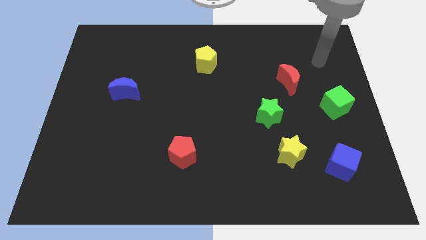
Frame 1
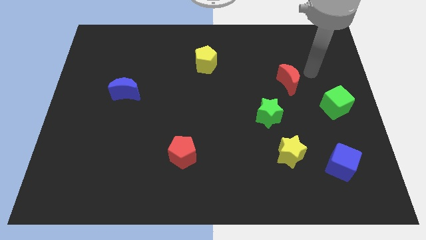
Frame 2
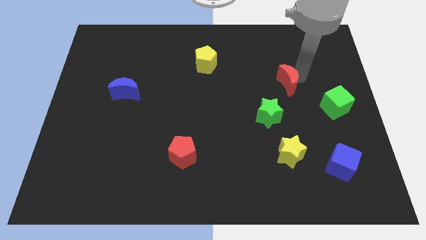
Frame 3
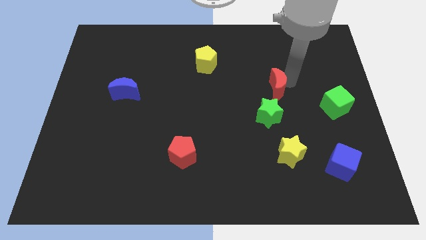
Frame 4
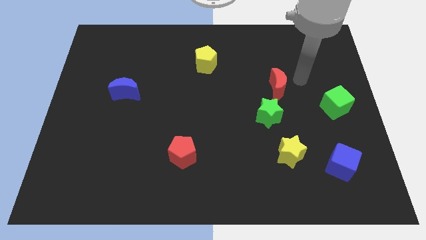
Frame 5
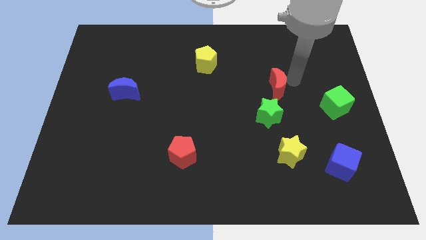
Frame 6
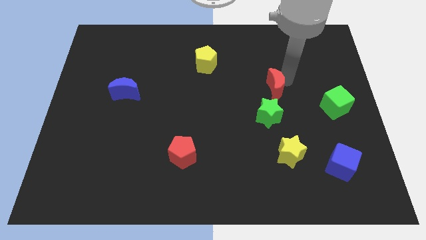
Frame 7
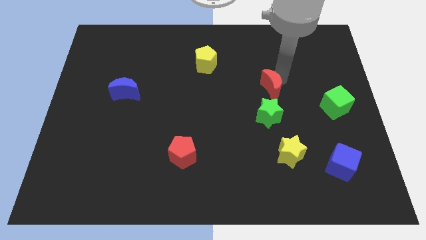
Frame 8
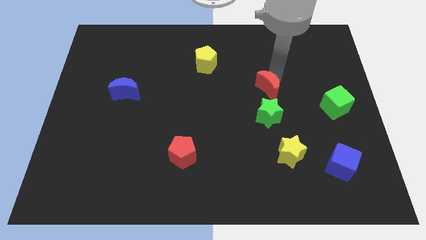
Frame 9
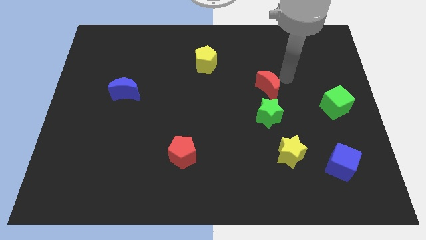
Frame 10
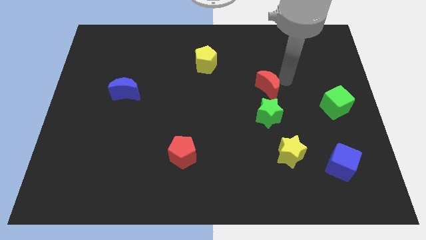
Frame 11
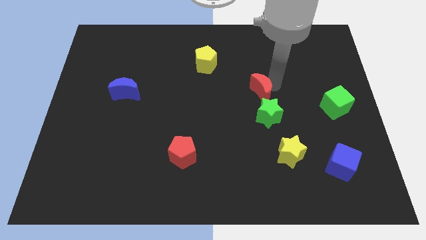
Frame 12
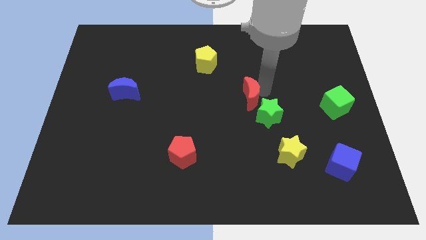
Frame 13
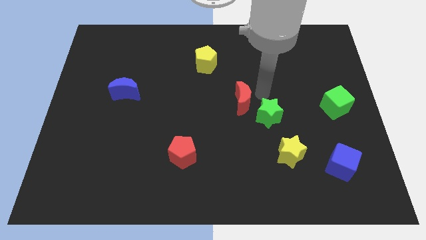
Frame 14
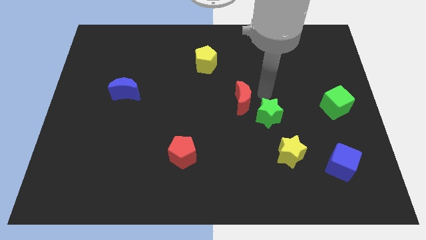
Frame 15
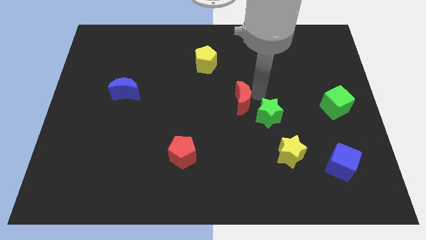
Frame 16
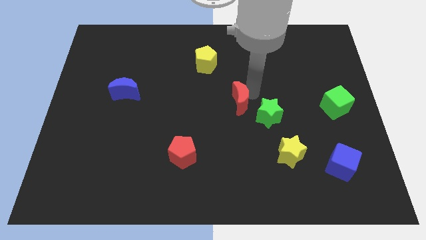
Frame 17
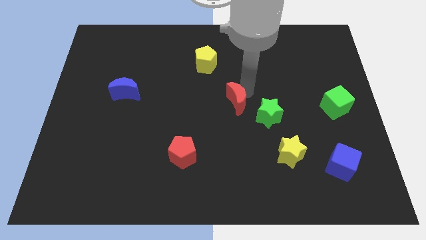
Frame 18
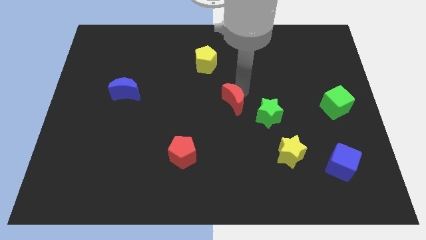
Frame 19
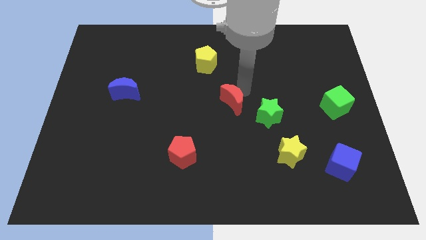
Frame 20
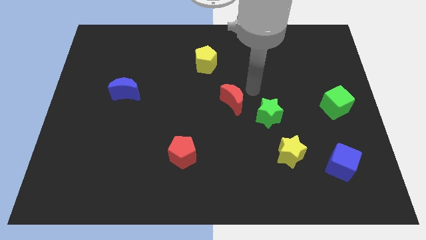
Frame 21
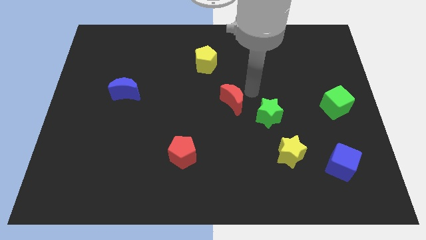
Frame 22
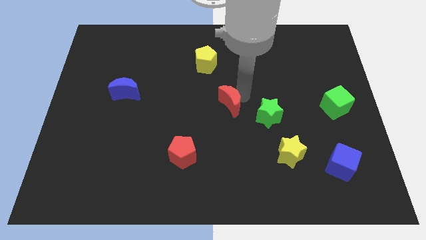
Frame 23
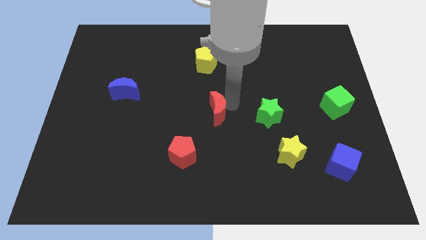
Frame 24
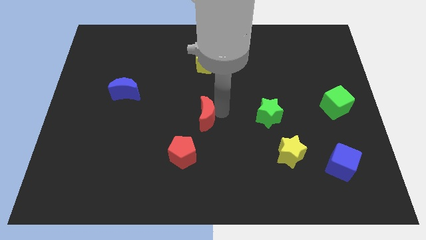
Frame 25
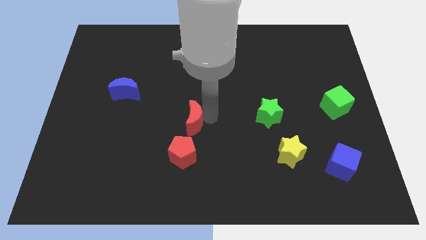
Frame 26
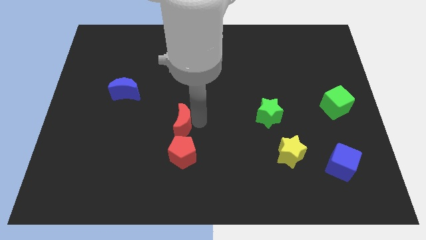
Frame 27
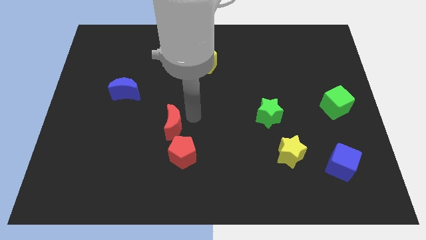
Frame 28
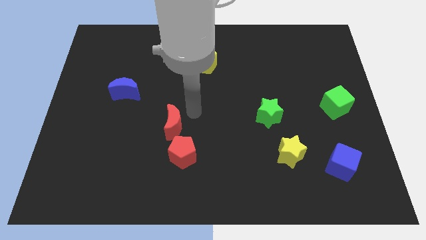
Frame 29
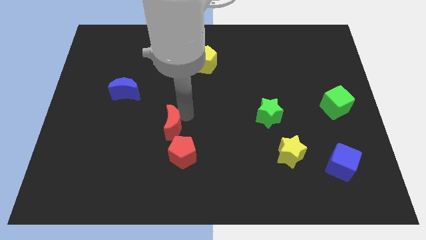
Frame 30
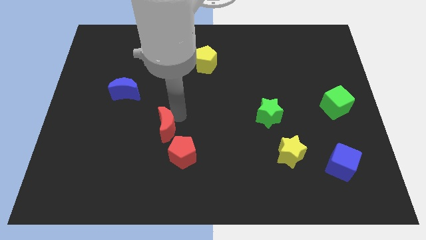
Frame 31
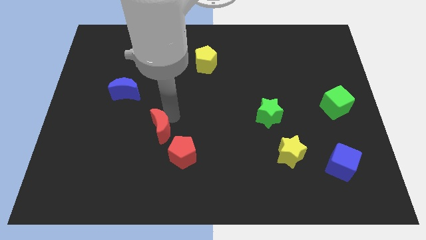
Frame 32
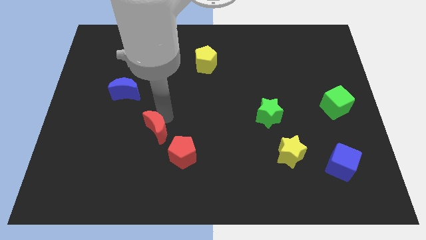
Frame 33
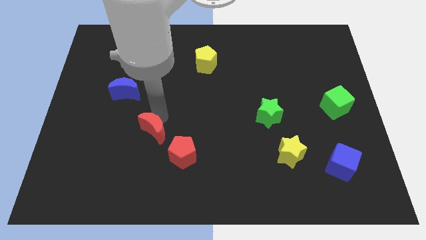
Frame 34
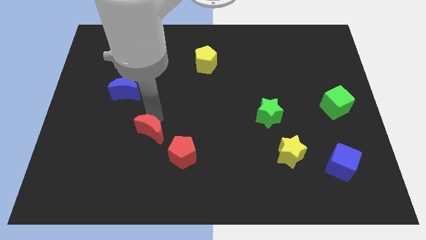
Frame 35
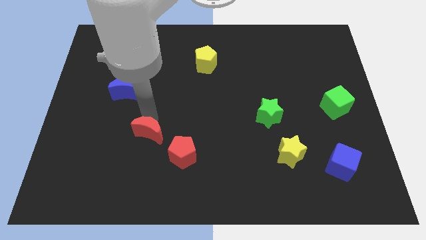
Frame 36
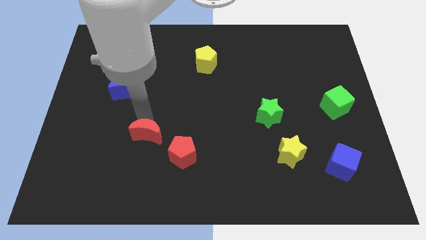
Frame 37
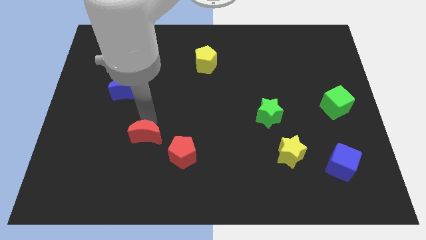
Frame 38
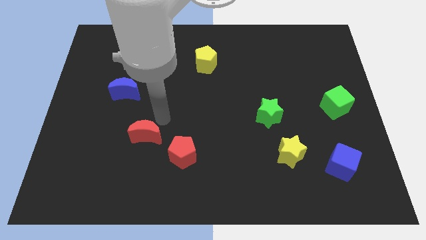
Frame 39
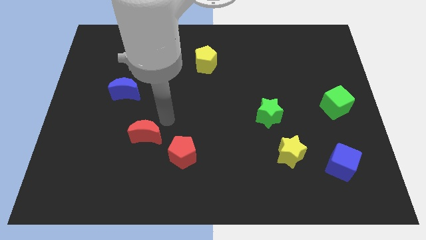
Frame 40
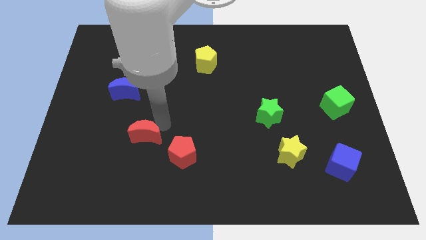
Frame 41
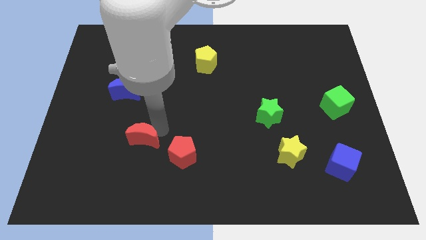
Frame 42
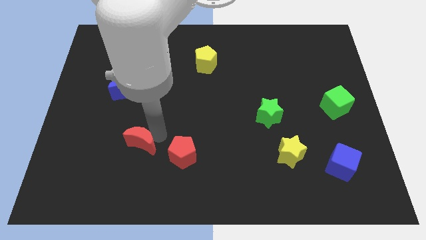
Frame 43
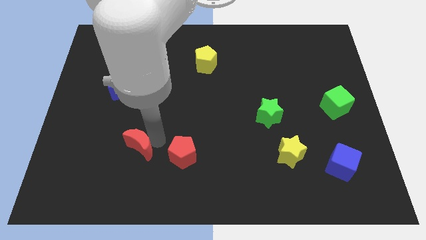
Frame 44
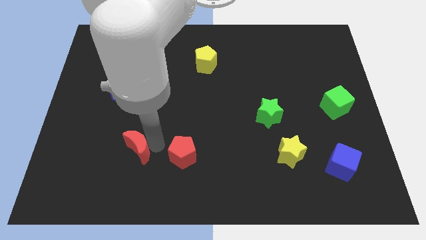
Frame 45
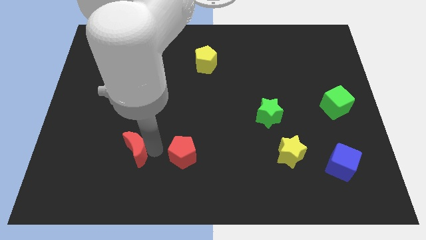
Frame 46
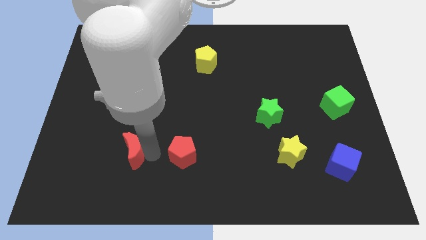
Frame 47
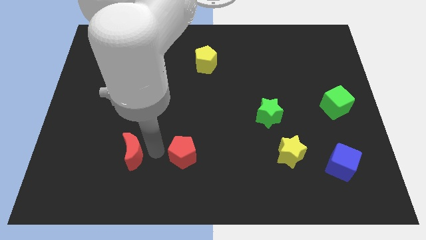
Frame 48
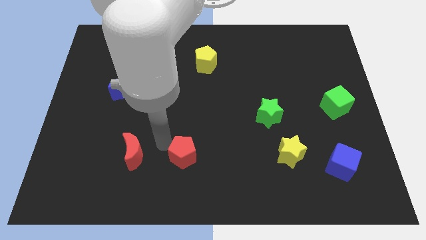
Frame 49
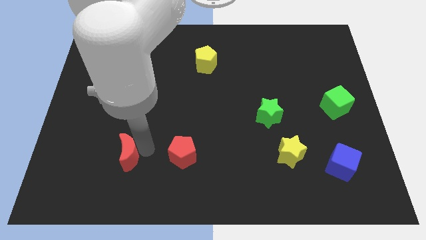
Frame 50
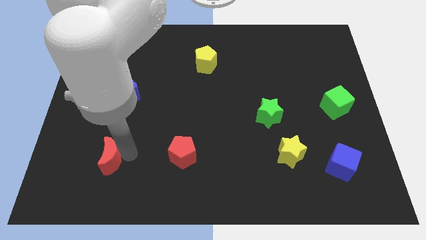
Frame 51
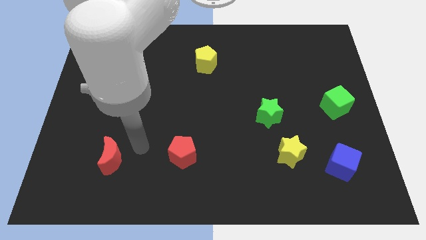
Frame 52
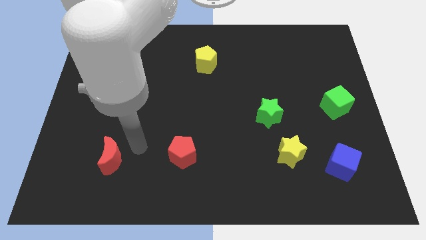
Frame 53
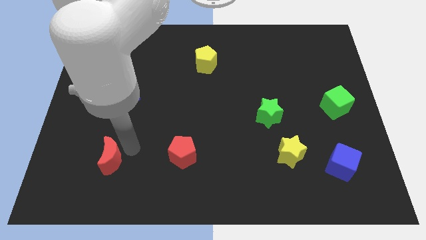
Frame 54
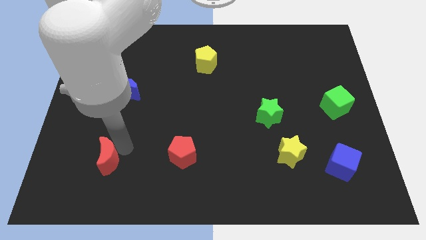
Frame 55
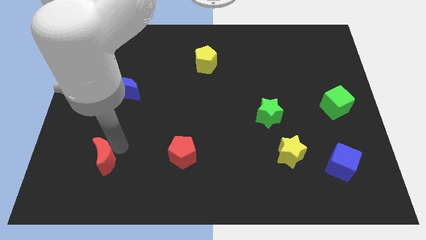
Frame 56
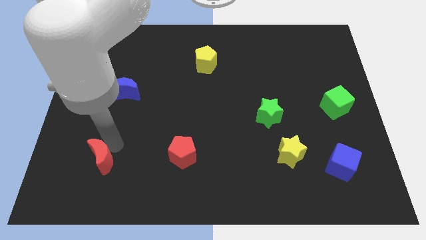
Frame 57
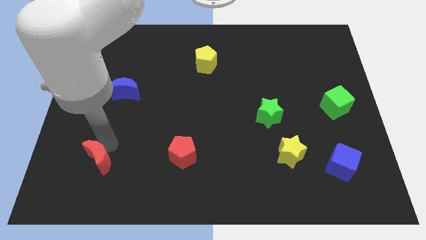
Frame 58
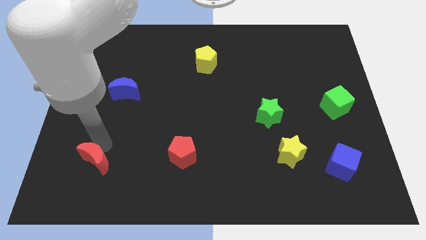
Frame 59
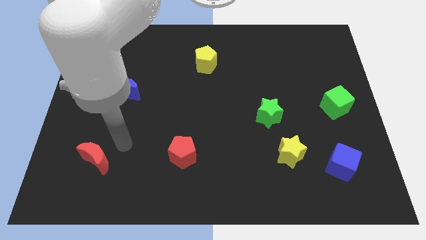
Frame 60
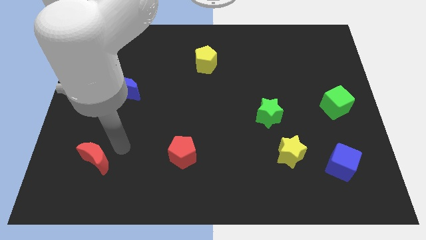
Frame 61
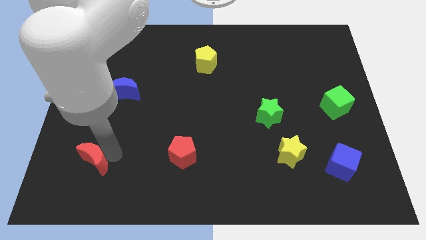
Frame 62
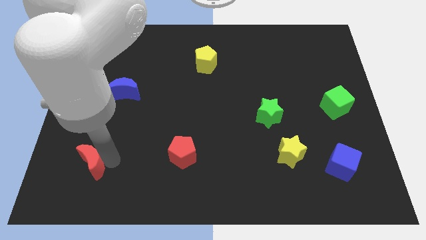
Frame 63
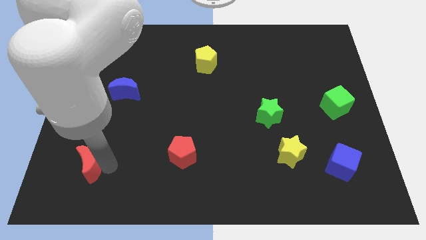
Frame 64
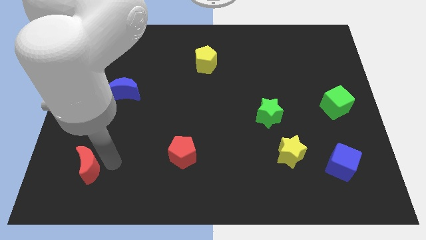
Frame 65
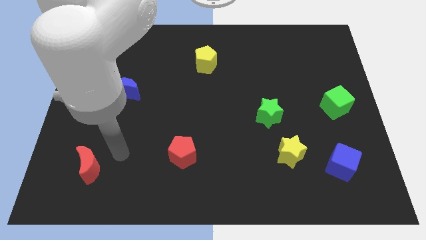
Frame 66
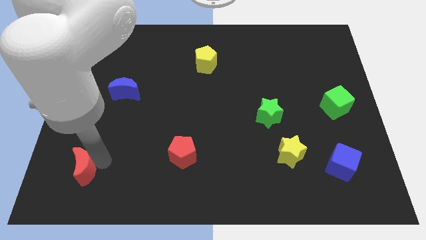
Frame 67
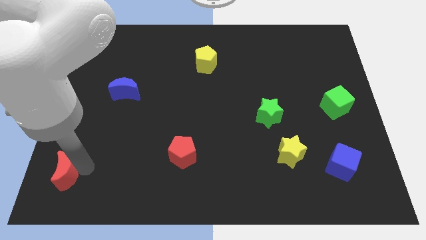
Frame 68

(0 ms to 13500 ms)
put the red moon to the bottom left of the board

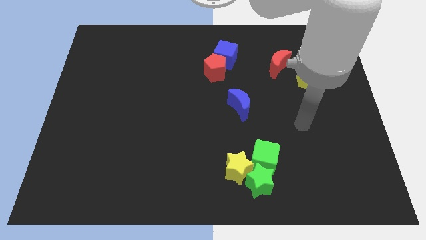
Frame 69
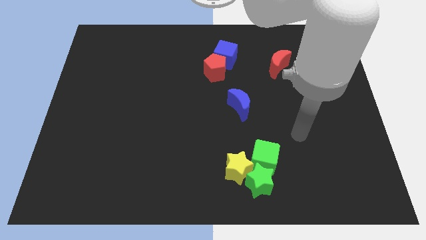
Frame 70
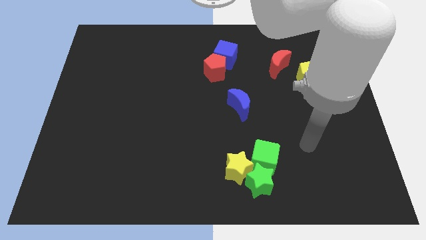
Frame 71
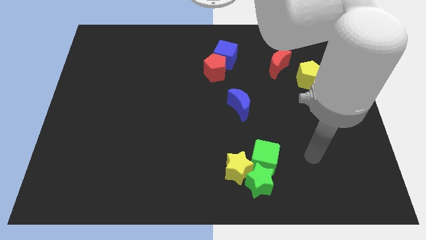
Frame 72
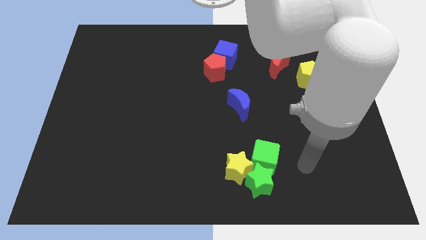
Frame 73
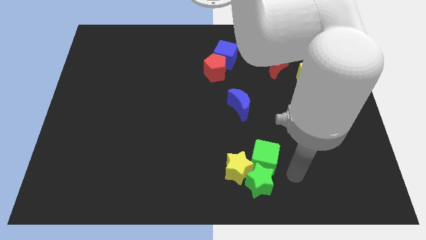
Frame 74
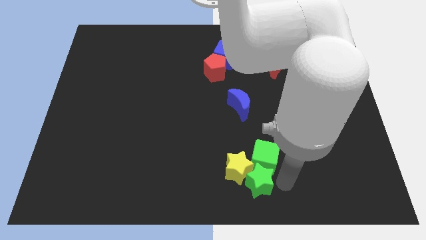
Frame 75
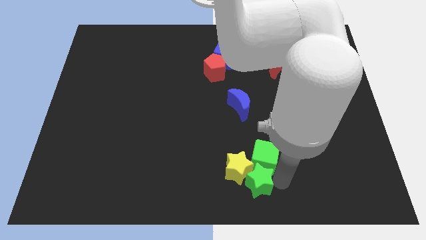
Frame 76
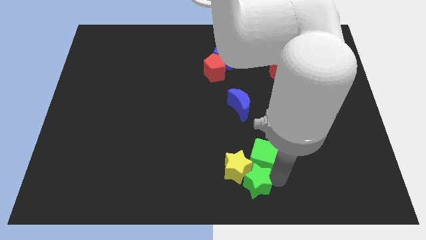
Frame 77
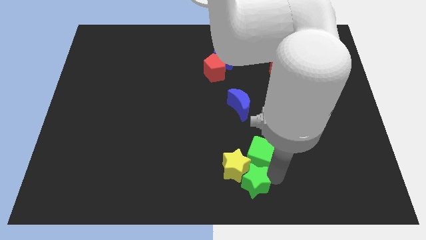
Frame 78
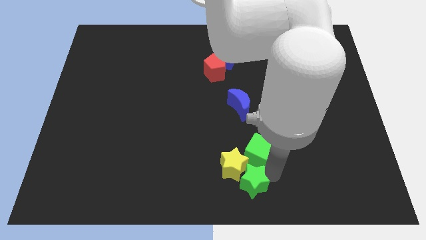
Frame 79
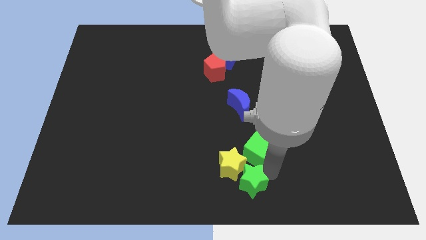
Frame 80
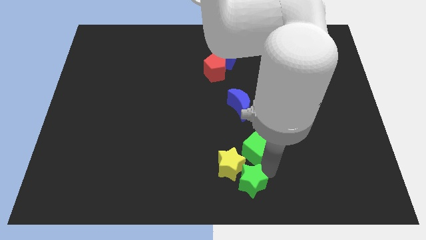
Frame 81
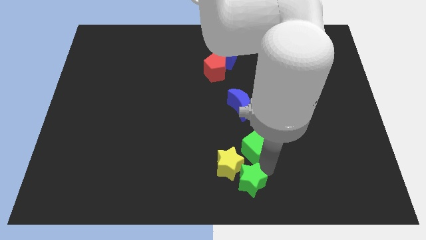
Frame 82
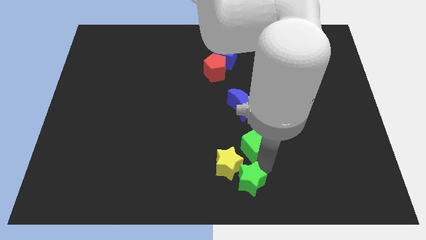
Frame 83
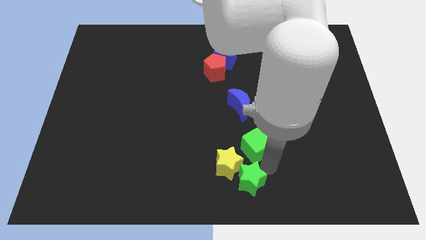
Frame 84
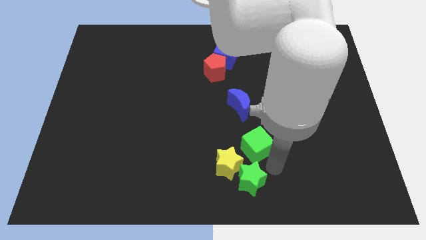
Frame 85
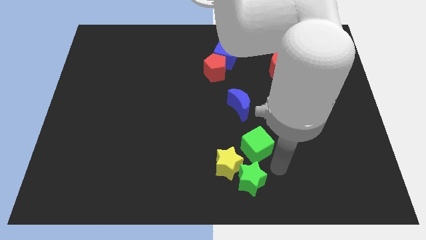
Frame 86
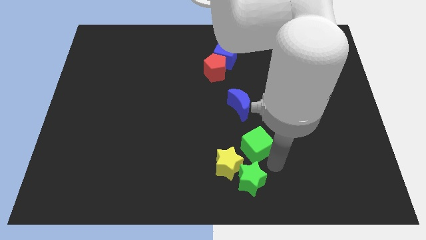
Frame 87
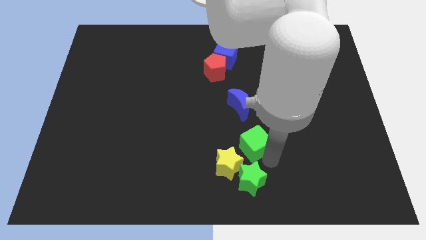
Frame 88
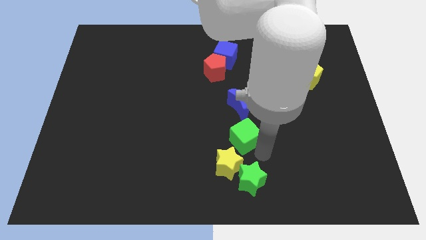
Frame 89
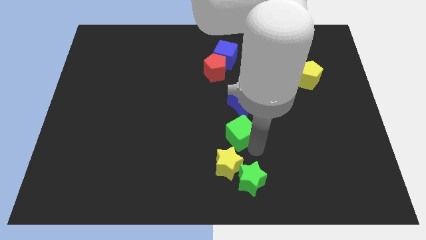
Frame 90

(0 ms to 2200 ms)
slide the green cube to the middle
